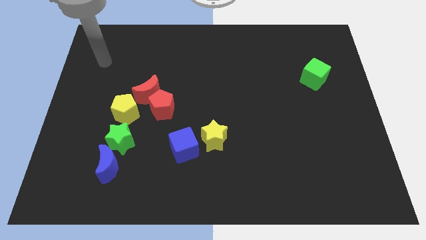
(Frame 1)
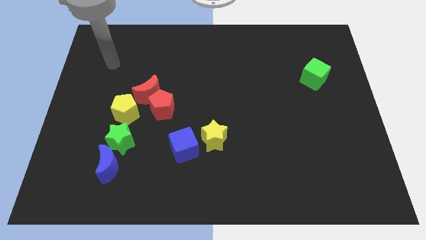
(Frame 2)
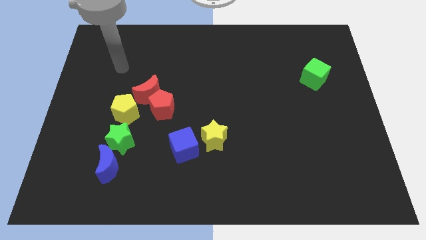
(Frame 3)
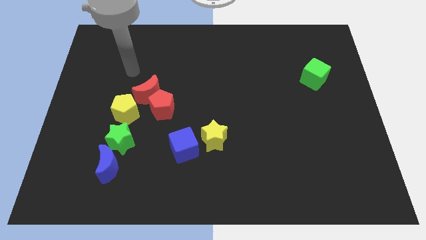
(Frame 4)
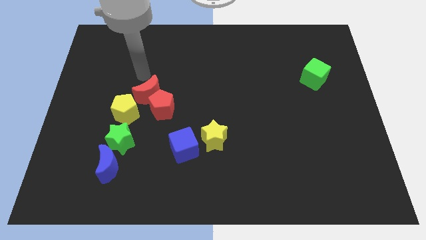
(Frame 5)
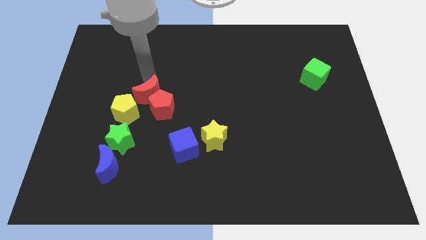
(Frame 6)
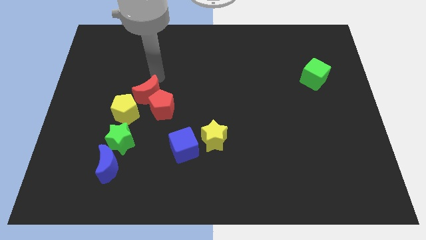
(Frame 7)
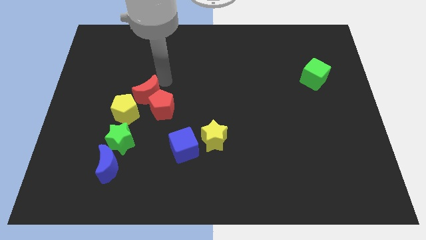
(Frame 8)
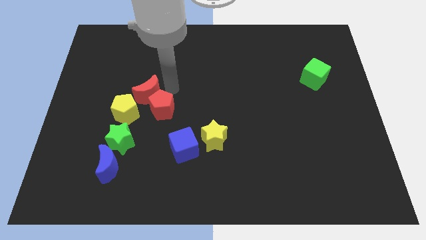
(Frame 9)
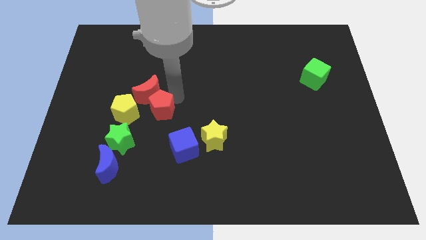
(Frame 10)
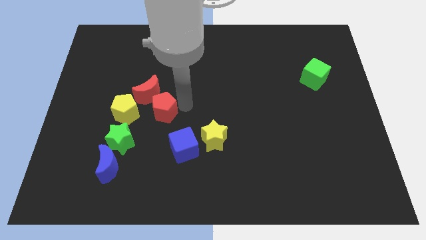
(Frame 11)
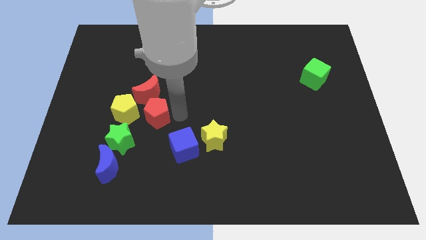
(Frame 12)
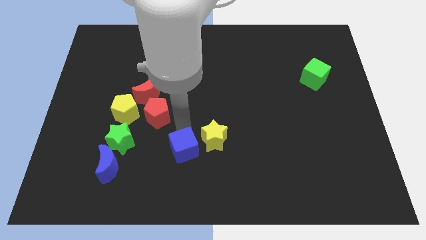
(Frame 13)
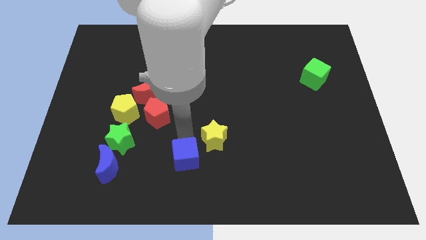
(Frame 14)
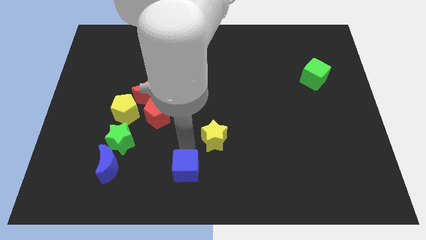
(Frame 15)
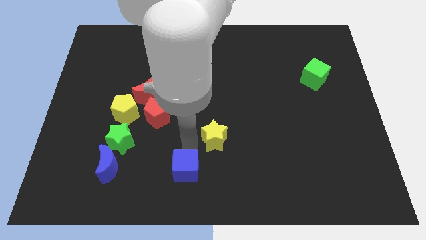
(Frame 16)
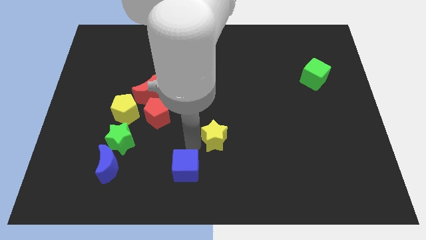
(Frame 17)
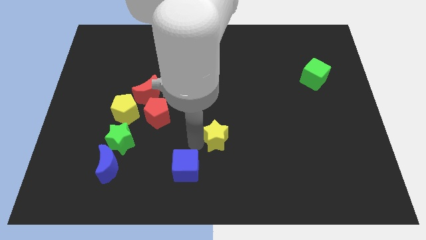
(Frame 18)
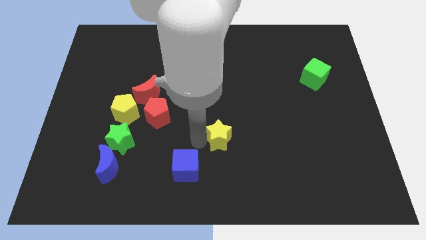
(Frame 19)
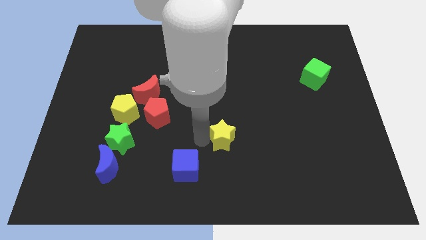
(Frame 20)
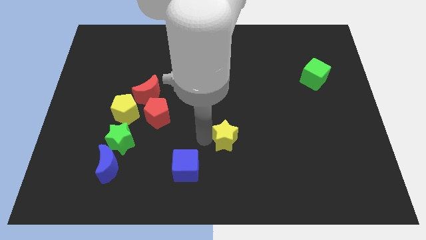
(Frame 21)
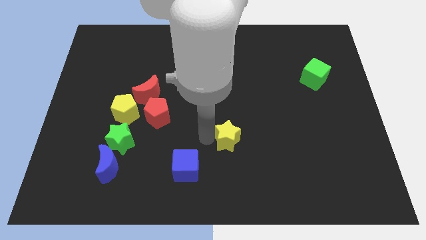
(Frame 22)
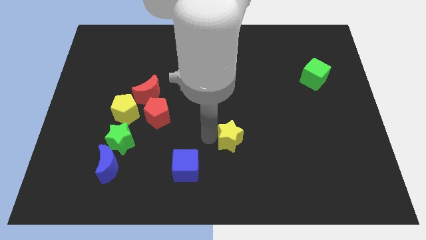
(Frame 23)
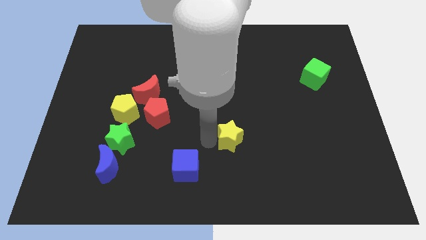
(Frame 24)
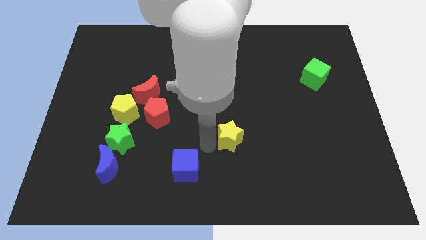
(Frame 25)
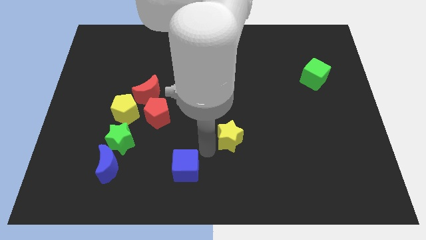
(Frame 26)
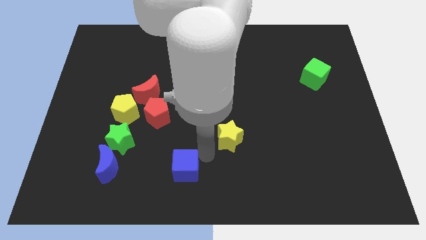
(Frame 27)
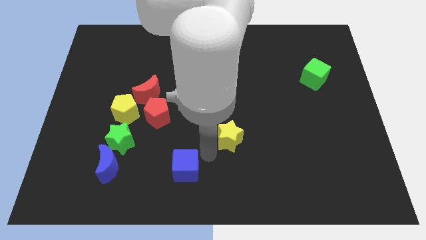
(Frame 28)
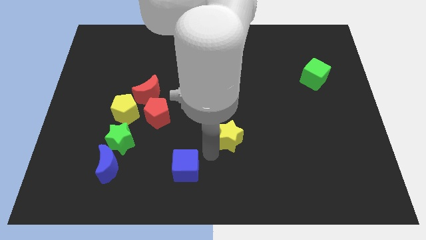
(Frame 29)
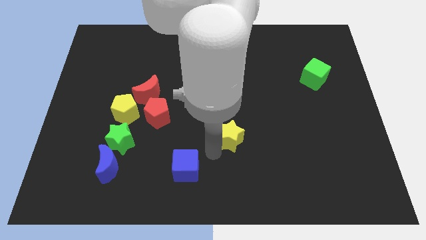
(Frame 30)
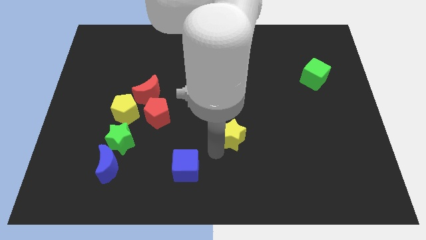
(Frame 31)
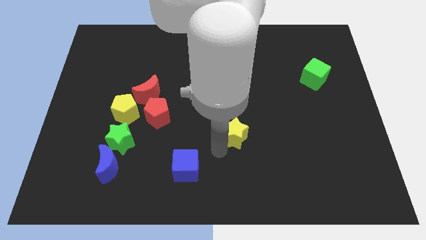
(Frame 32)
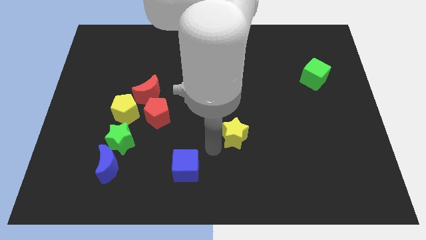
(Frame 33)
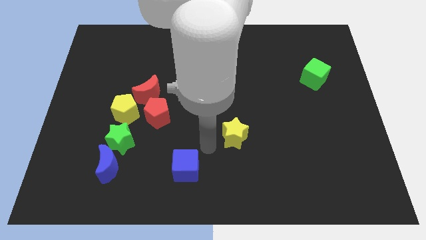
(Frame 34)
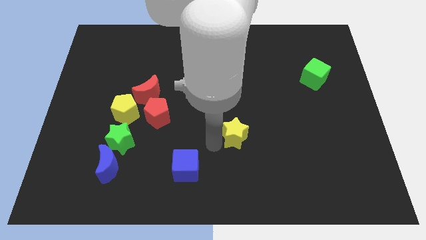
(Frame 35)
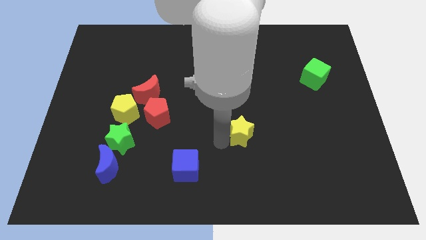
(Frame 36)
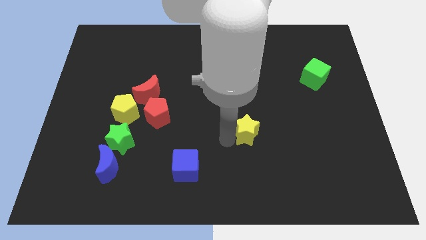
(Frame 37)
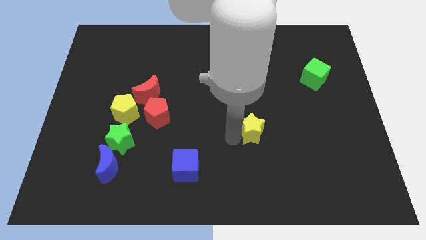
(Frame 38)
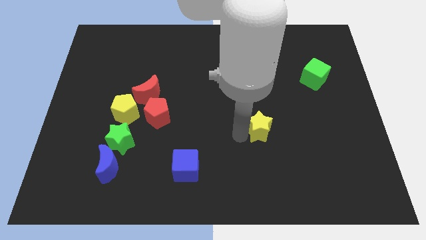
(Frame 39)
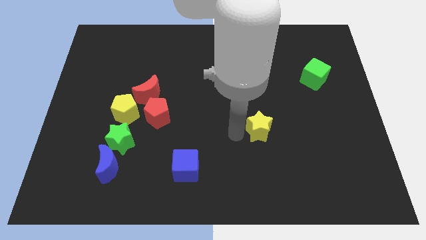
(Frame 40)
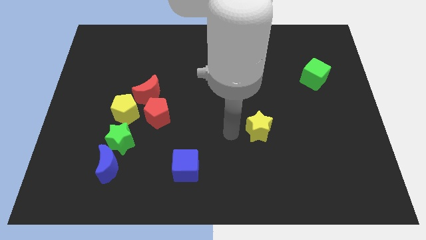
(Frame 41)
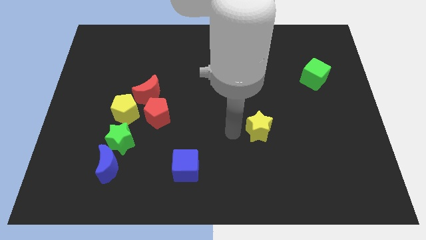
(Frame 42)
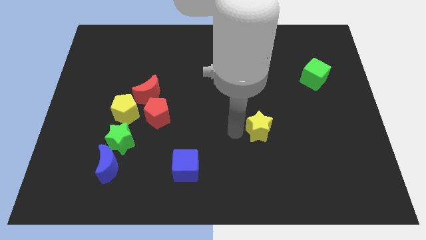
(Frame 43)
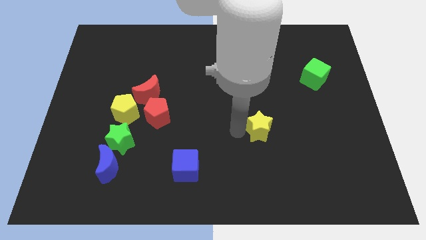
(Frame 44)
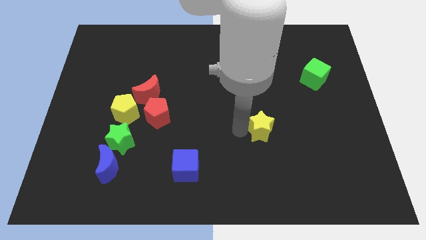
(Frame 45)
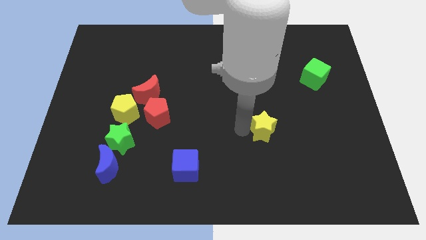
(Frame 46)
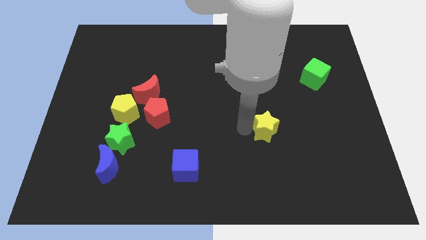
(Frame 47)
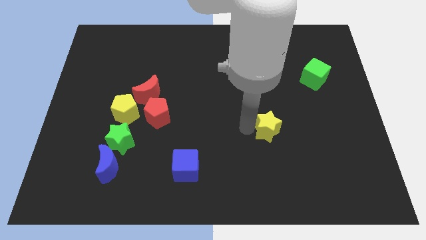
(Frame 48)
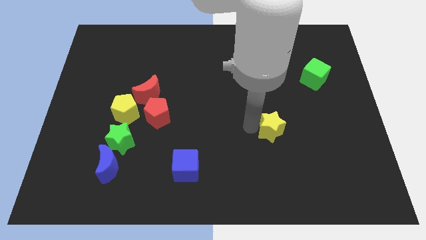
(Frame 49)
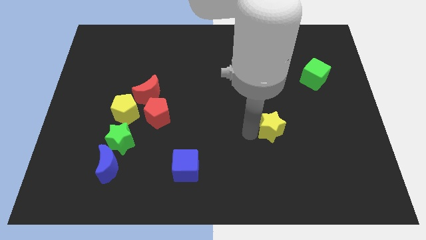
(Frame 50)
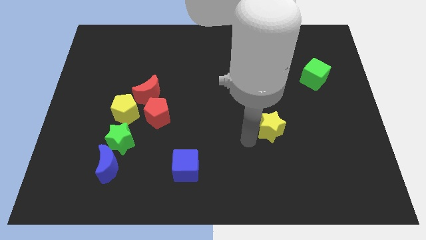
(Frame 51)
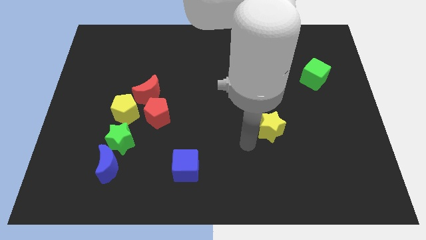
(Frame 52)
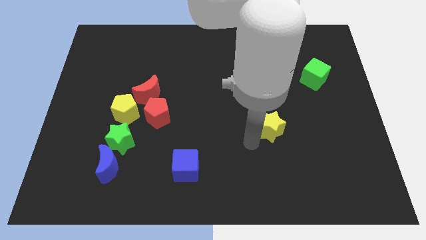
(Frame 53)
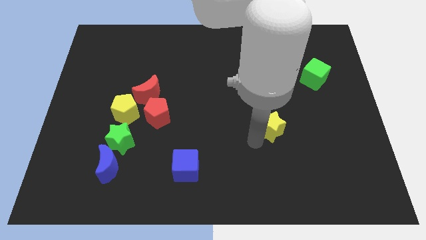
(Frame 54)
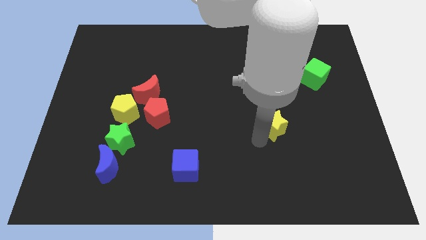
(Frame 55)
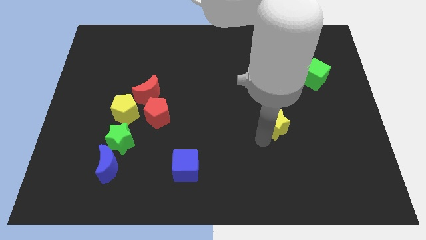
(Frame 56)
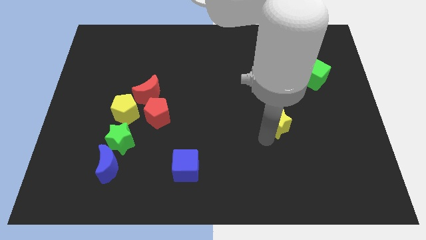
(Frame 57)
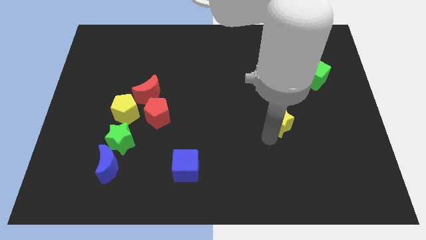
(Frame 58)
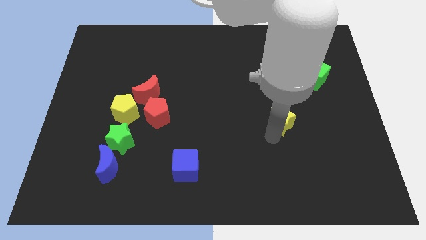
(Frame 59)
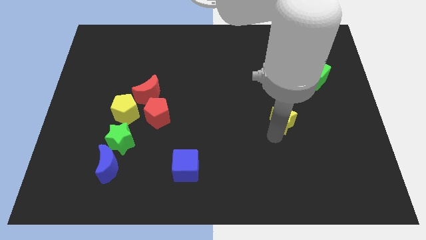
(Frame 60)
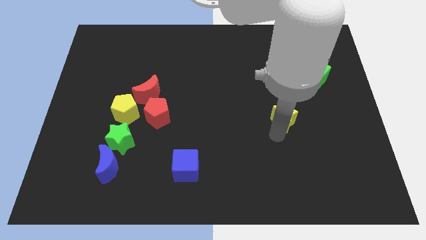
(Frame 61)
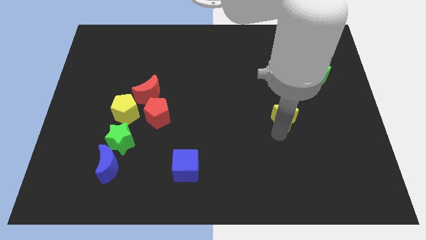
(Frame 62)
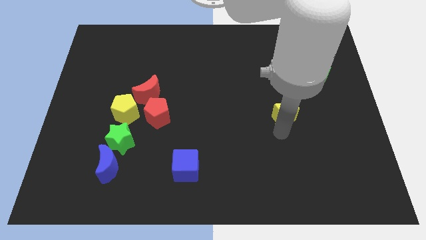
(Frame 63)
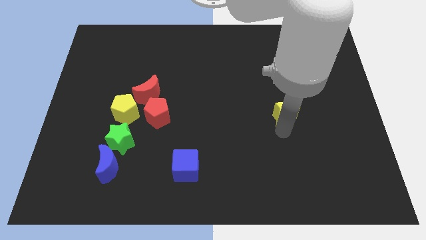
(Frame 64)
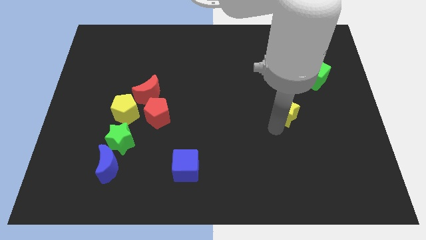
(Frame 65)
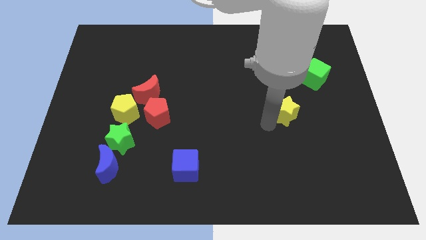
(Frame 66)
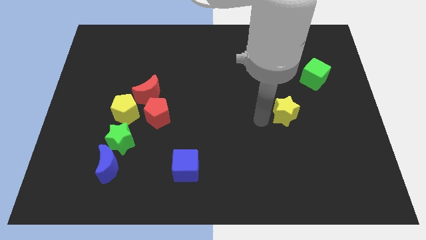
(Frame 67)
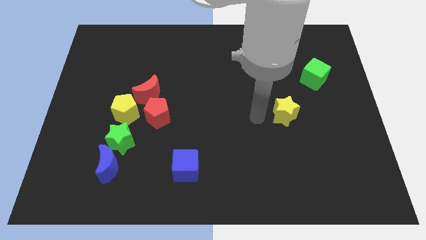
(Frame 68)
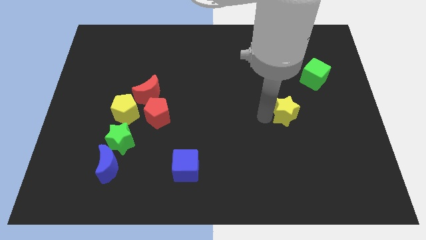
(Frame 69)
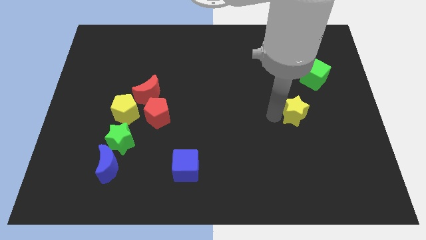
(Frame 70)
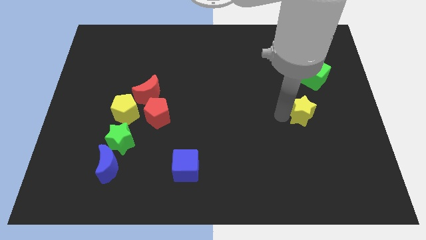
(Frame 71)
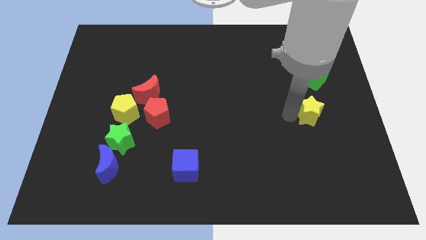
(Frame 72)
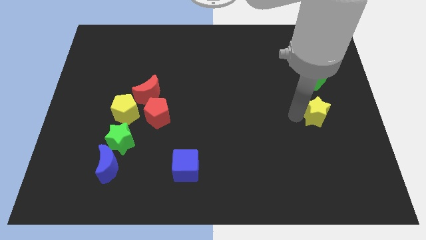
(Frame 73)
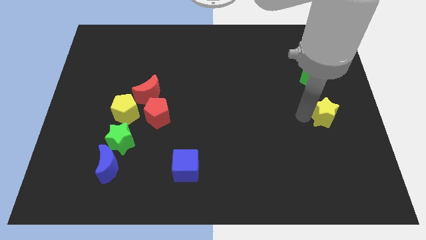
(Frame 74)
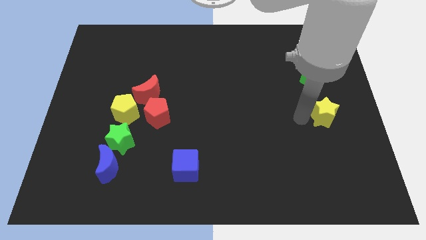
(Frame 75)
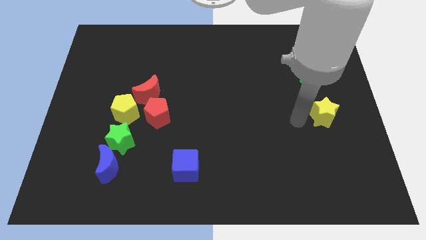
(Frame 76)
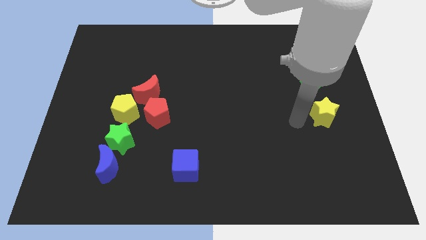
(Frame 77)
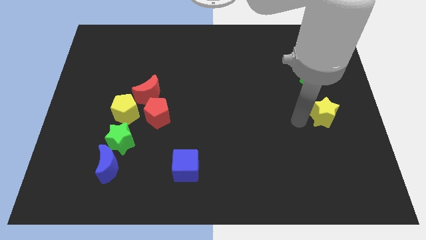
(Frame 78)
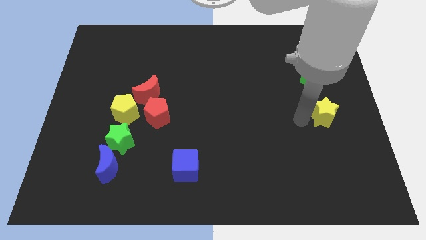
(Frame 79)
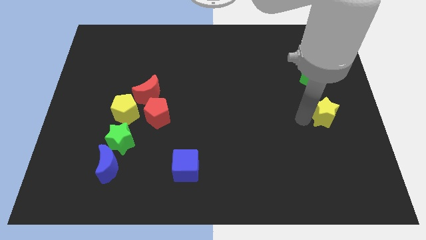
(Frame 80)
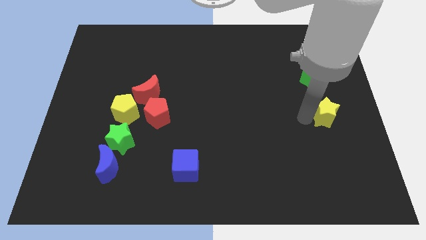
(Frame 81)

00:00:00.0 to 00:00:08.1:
move the yellow star to the center right
